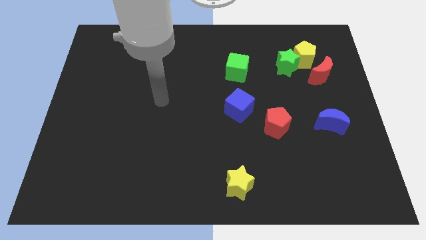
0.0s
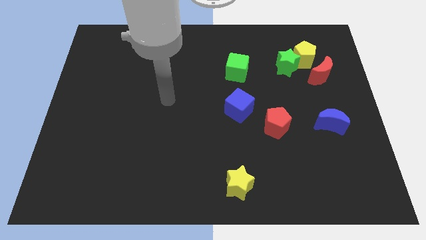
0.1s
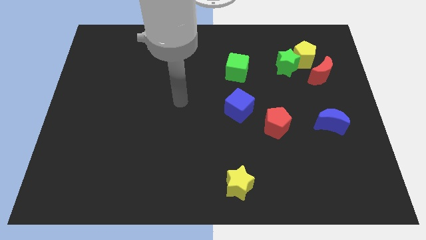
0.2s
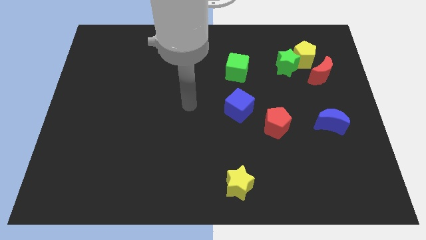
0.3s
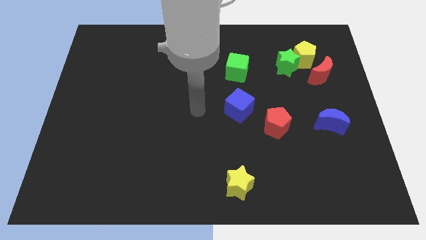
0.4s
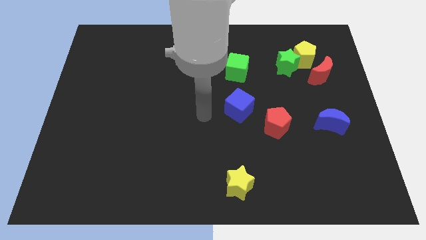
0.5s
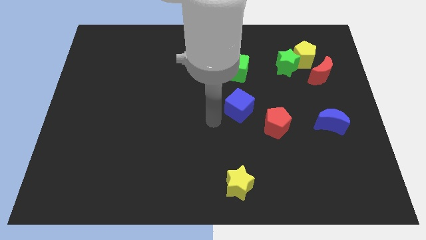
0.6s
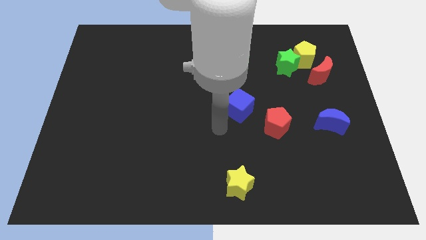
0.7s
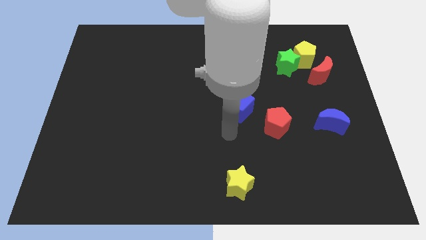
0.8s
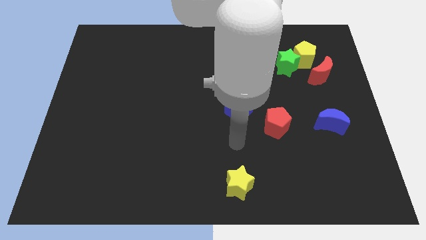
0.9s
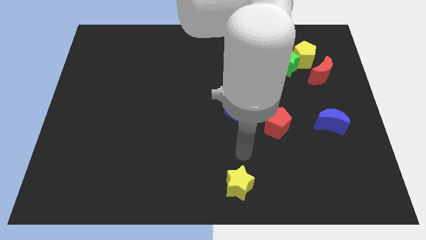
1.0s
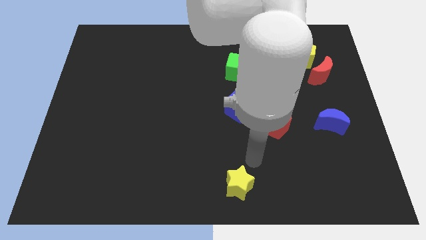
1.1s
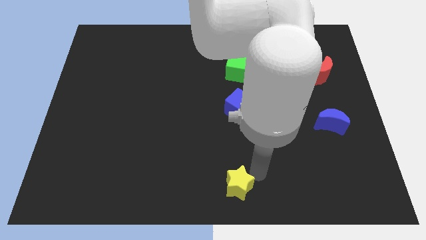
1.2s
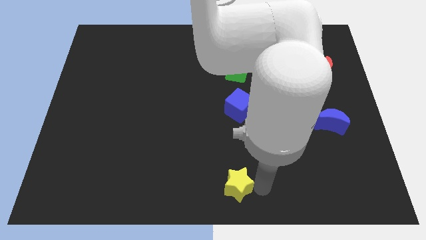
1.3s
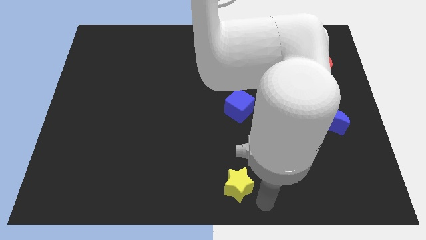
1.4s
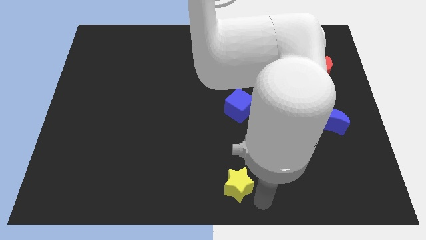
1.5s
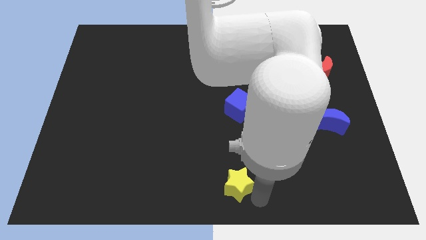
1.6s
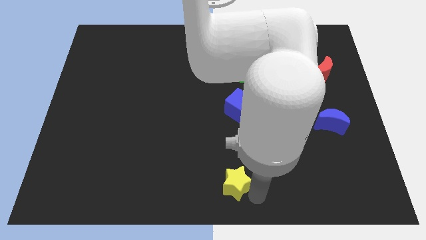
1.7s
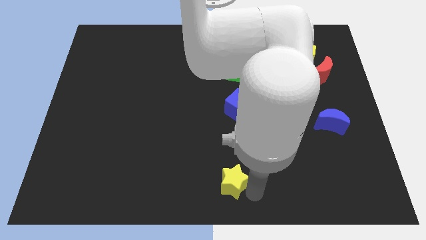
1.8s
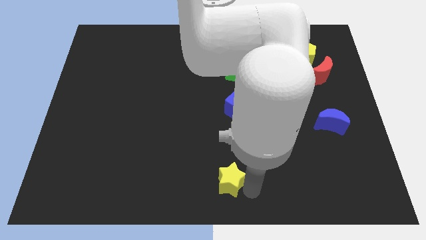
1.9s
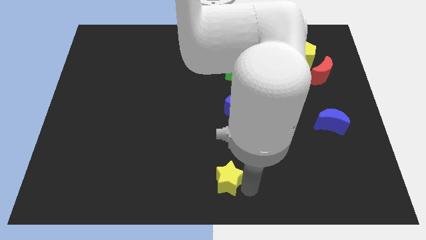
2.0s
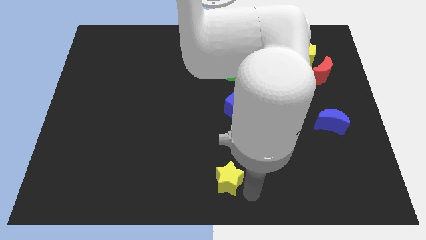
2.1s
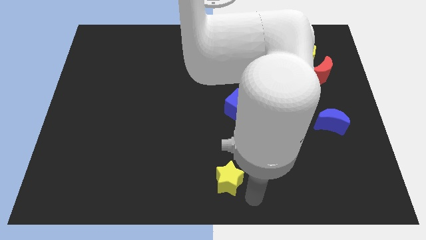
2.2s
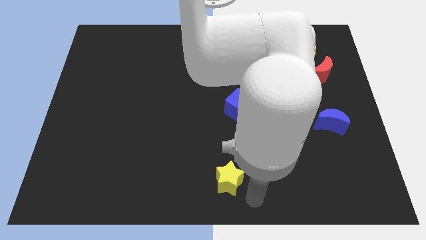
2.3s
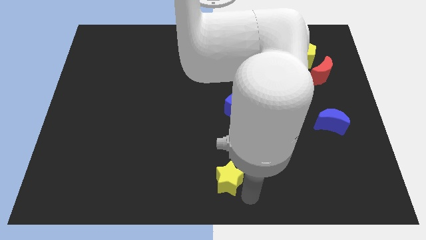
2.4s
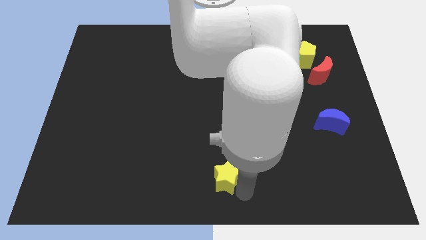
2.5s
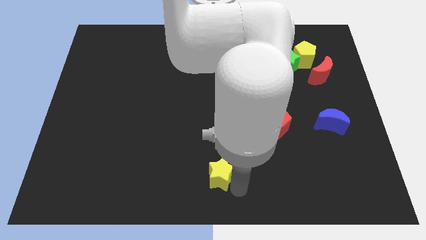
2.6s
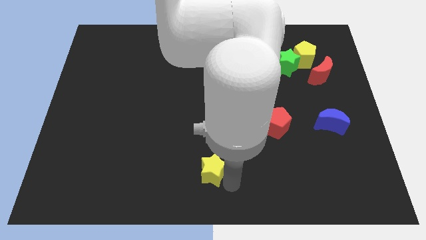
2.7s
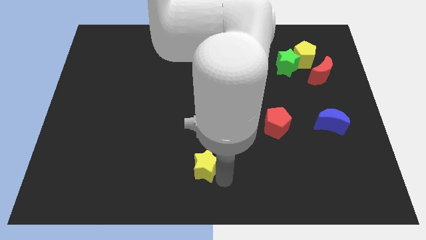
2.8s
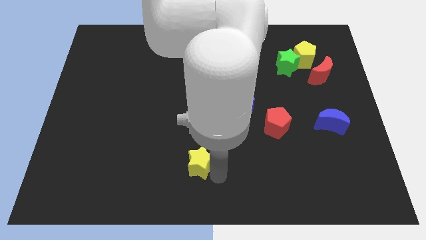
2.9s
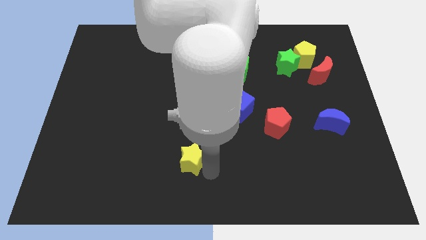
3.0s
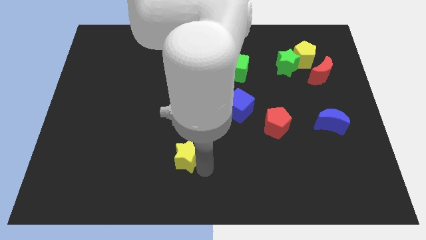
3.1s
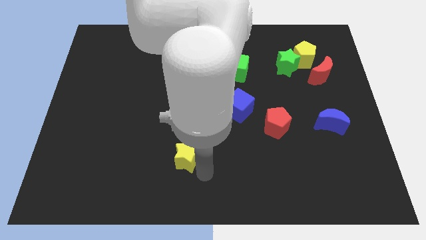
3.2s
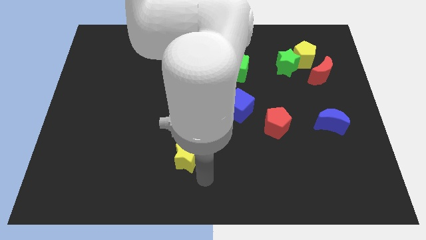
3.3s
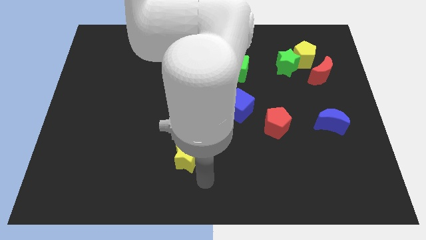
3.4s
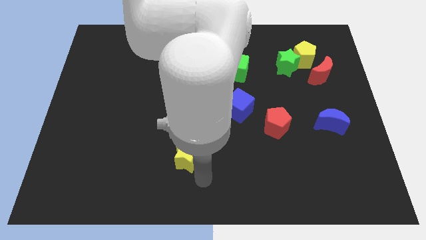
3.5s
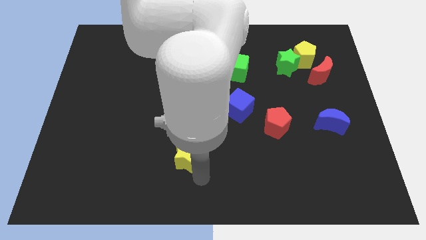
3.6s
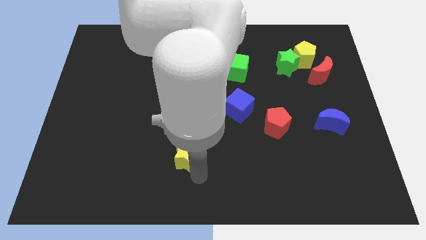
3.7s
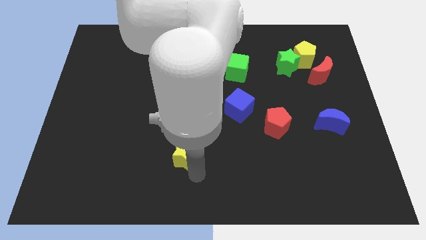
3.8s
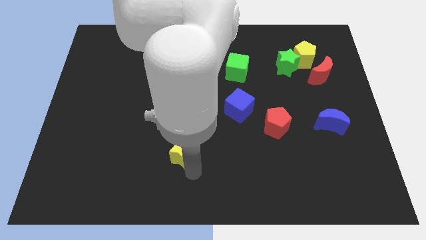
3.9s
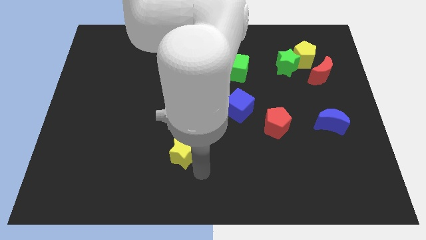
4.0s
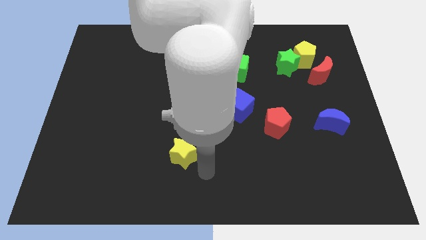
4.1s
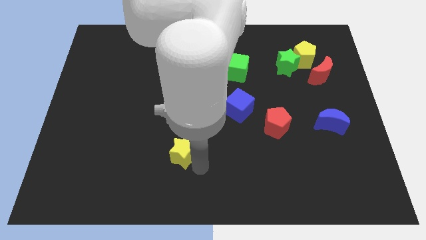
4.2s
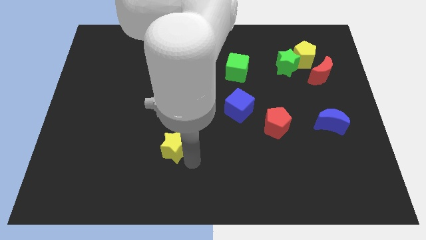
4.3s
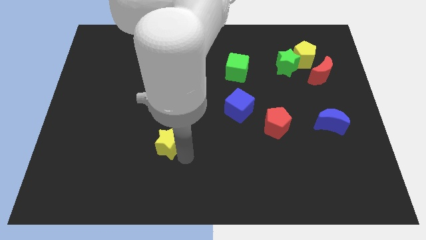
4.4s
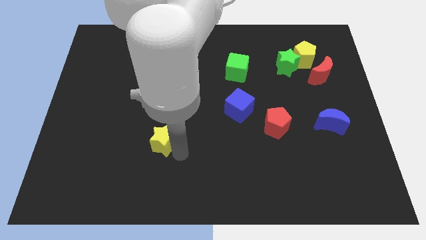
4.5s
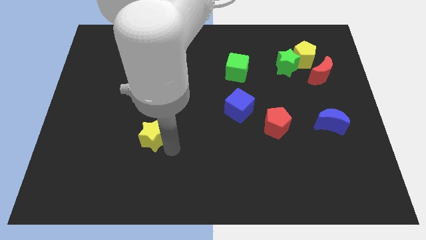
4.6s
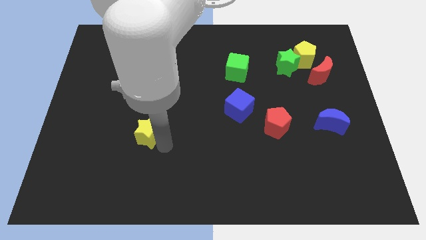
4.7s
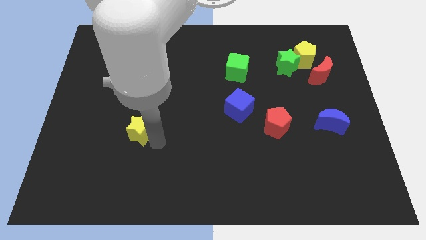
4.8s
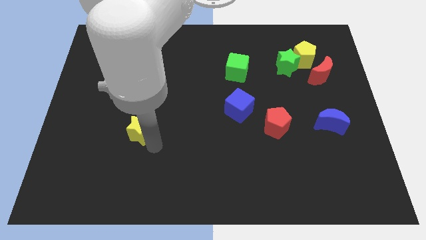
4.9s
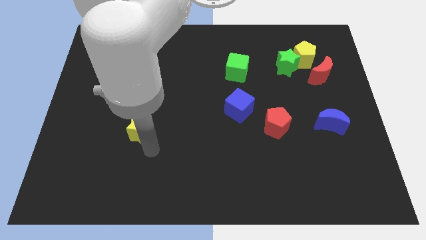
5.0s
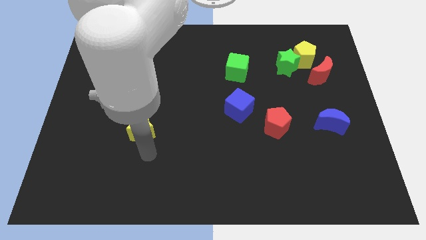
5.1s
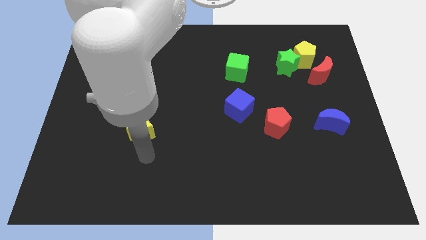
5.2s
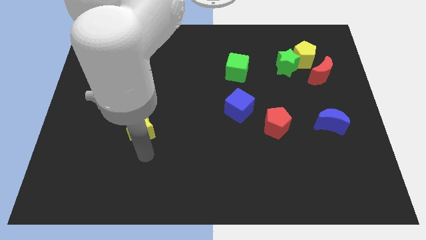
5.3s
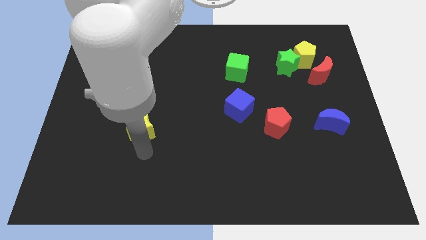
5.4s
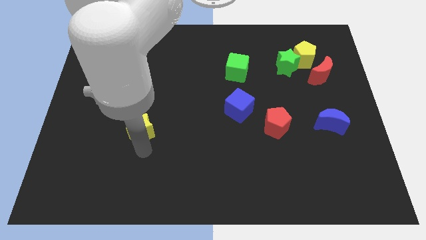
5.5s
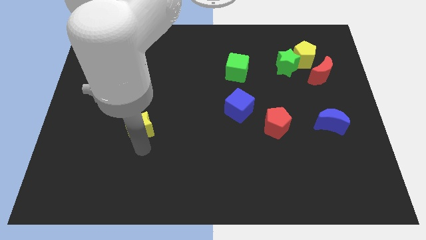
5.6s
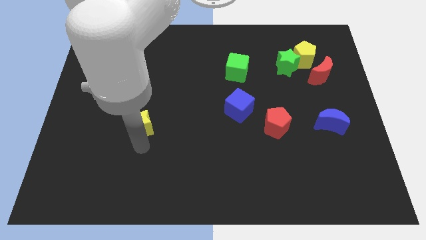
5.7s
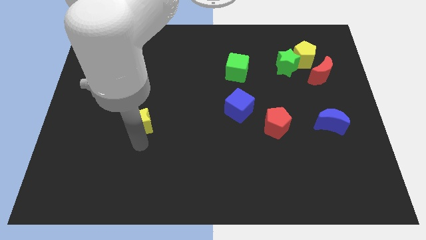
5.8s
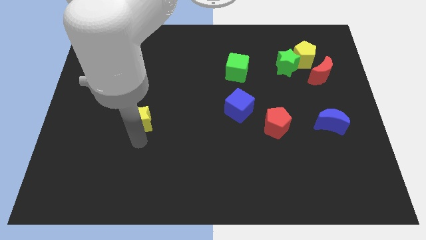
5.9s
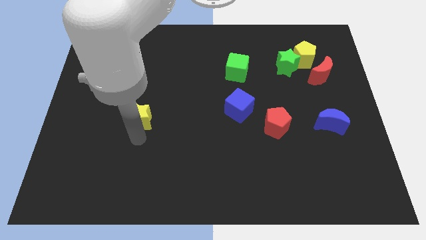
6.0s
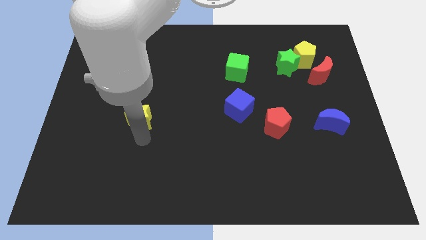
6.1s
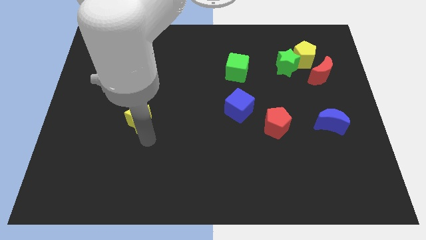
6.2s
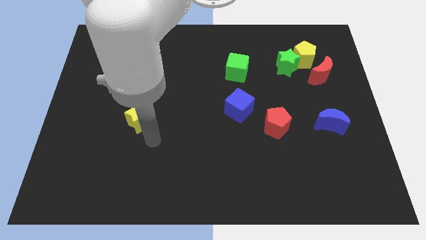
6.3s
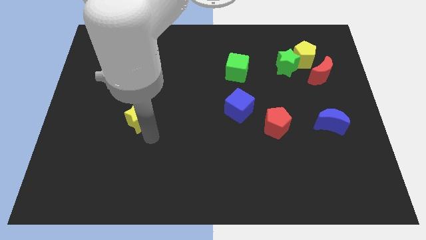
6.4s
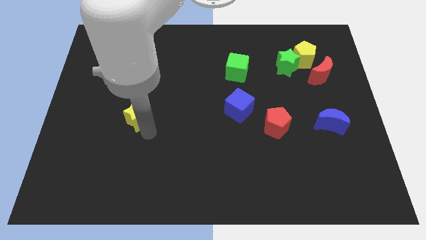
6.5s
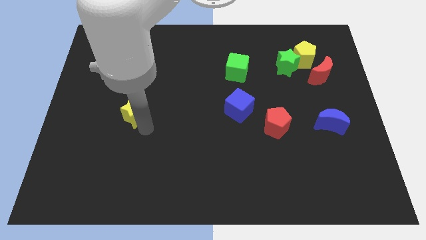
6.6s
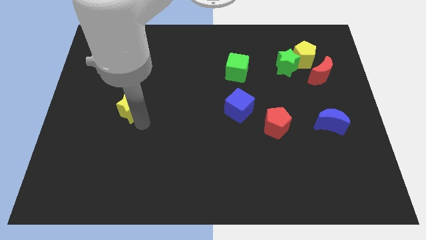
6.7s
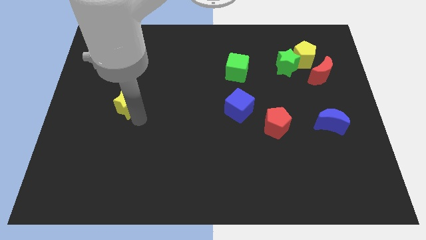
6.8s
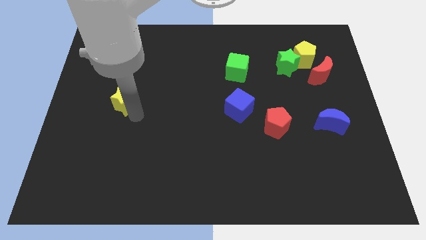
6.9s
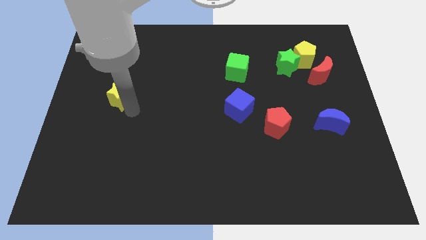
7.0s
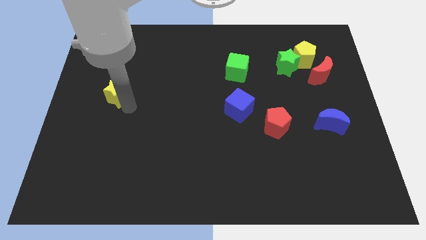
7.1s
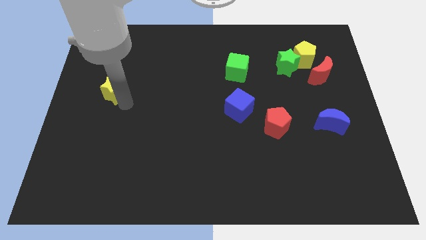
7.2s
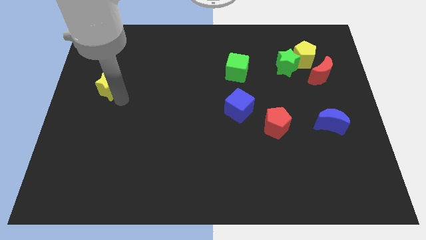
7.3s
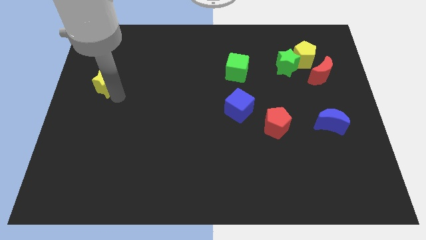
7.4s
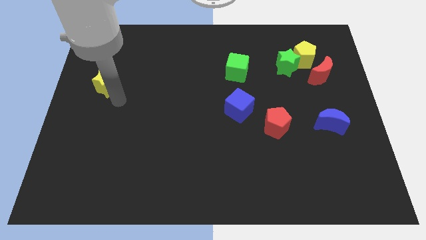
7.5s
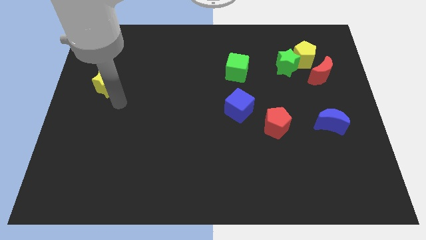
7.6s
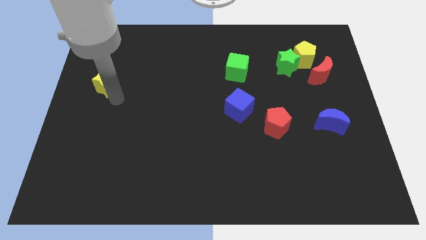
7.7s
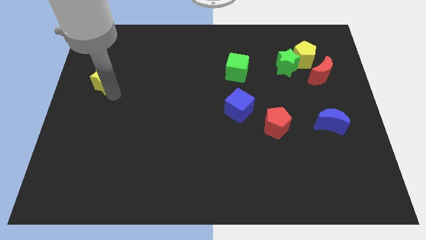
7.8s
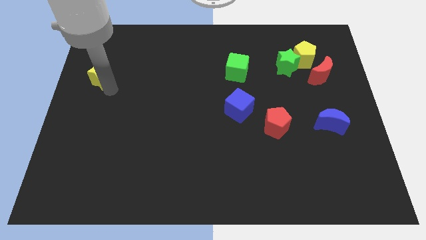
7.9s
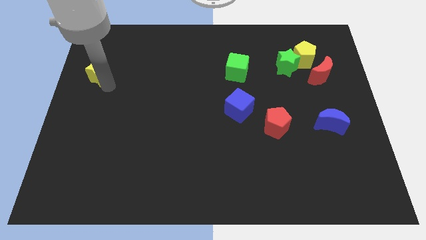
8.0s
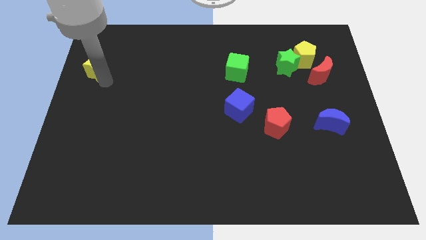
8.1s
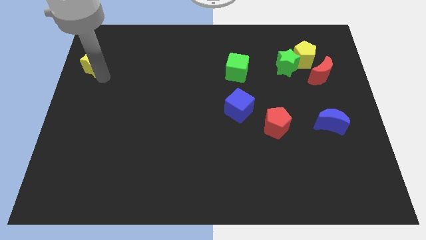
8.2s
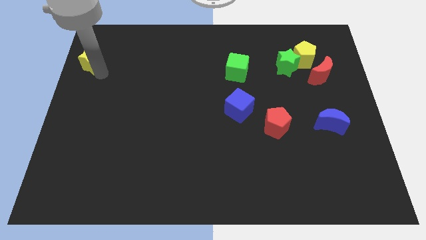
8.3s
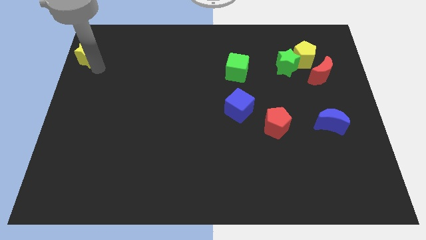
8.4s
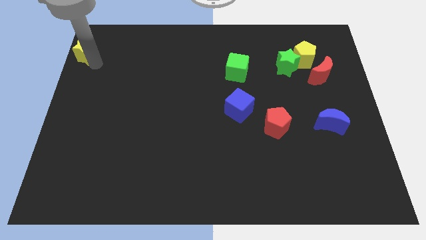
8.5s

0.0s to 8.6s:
slide the yellow star to the upper left corner
